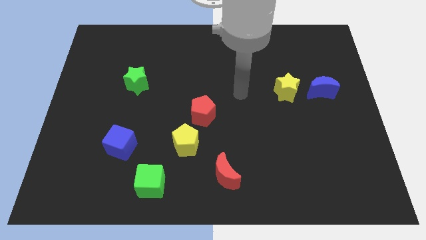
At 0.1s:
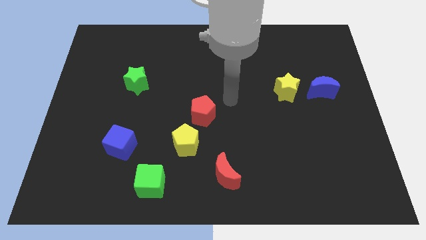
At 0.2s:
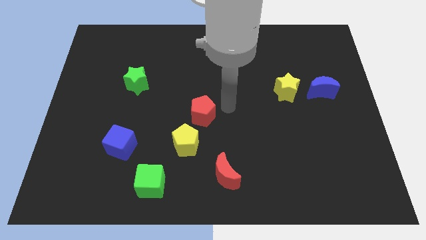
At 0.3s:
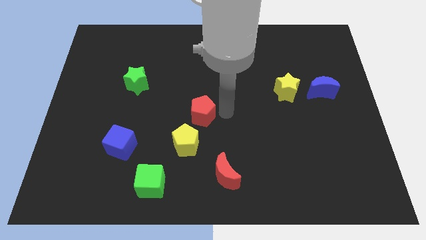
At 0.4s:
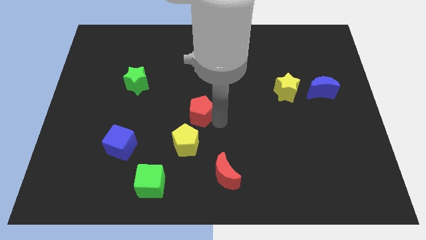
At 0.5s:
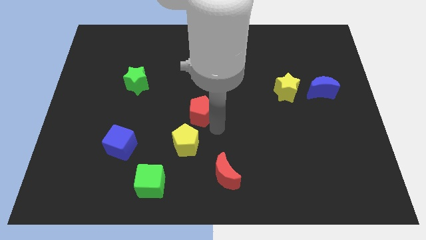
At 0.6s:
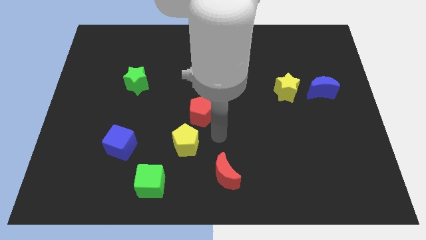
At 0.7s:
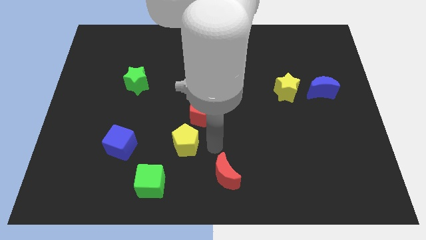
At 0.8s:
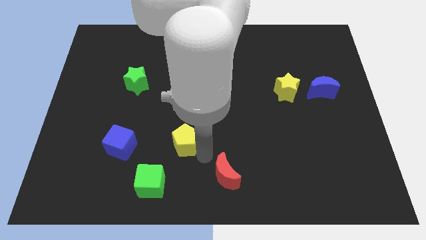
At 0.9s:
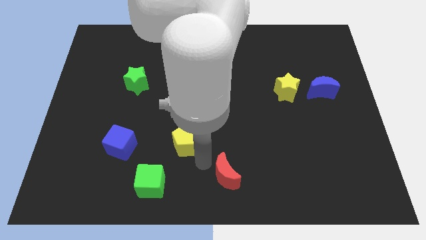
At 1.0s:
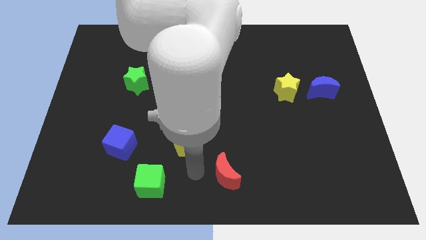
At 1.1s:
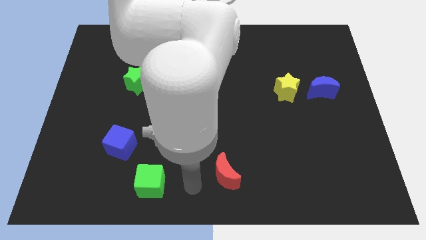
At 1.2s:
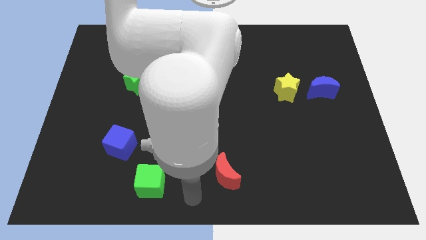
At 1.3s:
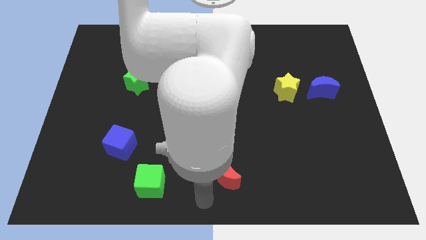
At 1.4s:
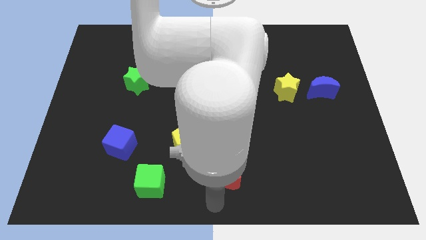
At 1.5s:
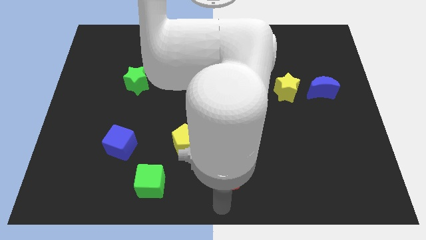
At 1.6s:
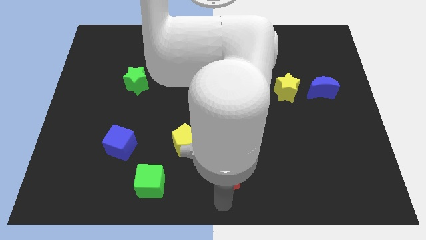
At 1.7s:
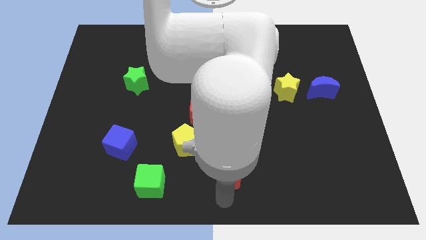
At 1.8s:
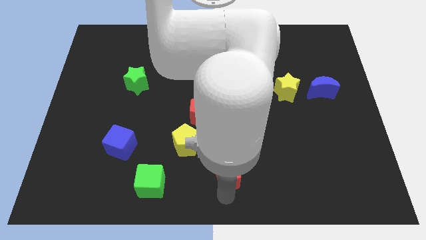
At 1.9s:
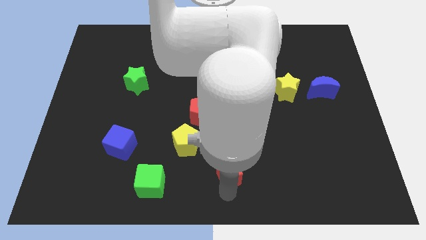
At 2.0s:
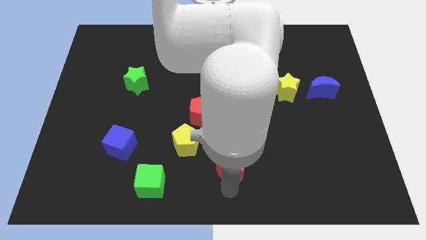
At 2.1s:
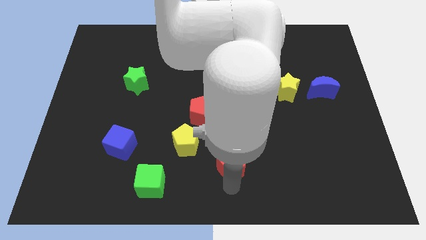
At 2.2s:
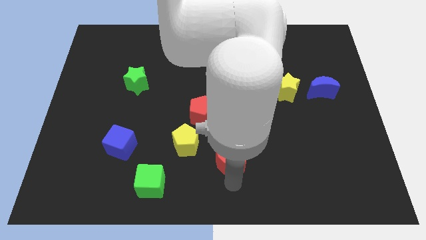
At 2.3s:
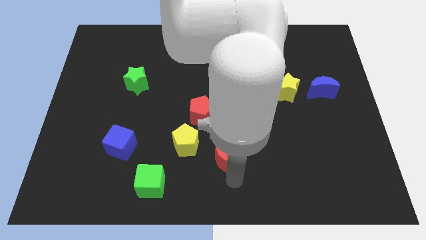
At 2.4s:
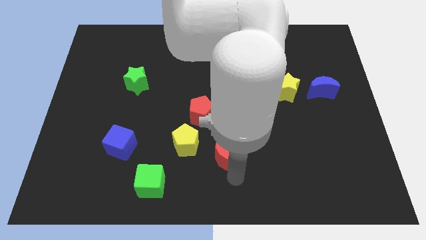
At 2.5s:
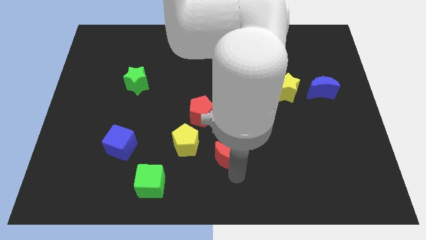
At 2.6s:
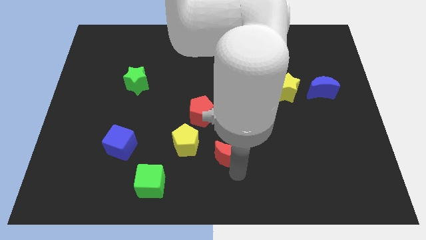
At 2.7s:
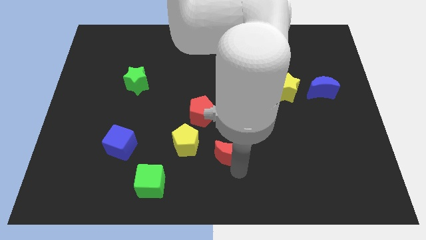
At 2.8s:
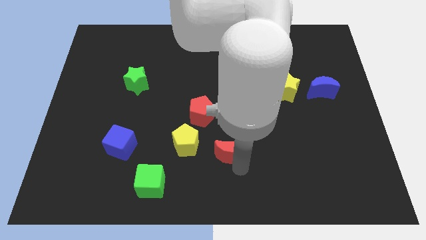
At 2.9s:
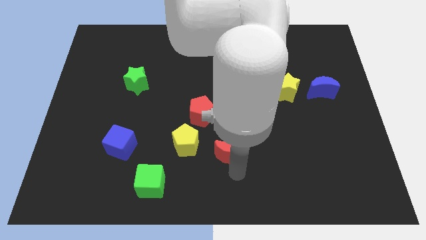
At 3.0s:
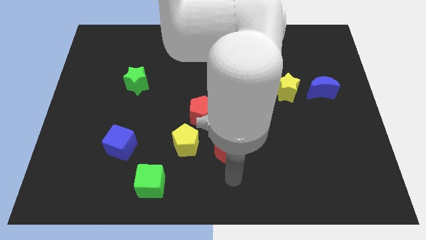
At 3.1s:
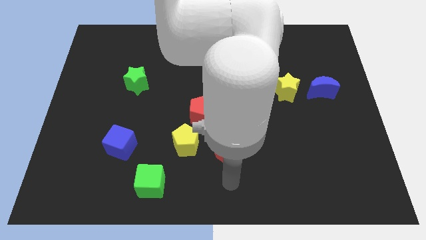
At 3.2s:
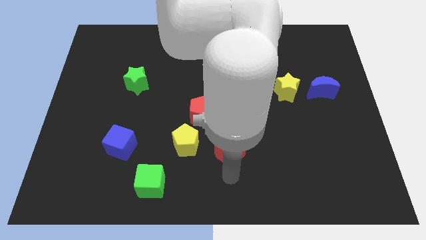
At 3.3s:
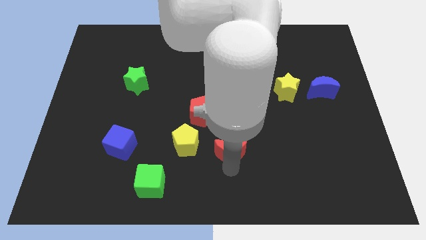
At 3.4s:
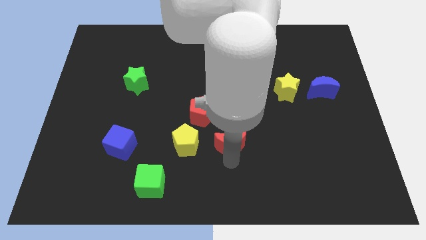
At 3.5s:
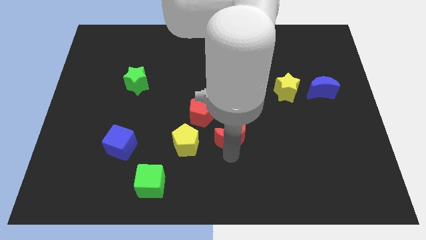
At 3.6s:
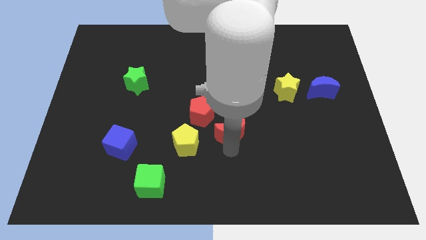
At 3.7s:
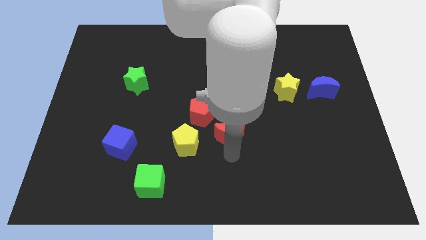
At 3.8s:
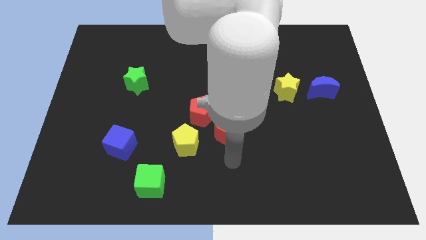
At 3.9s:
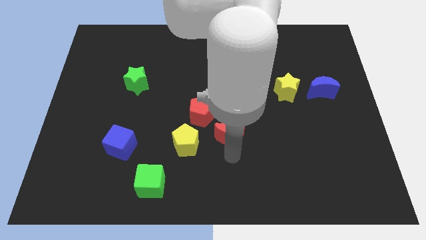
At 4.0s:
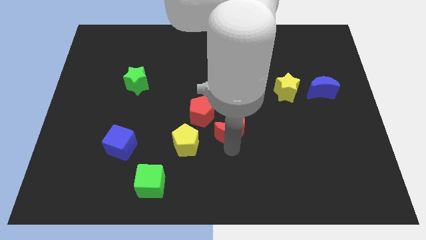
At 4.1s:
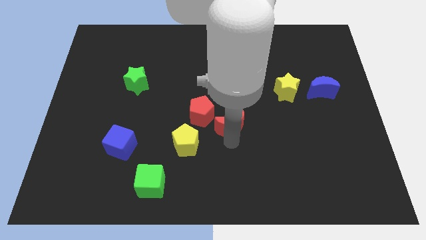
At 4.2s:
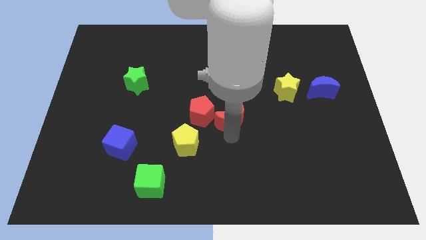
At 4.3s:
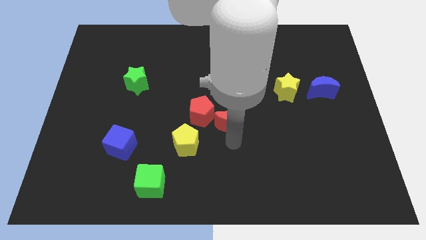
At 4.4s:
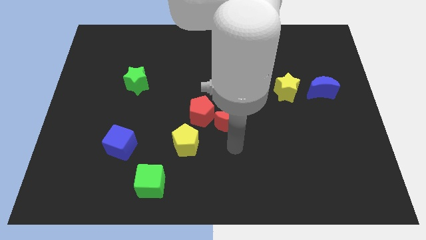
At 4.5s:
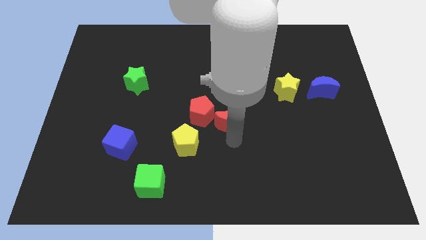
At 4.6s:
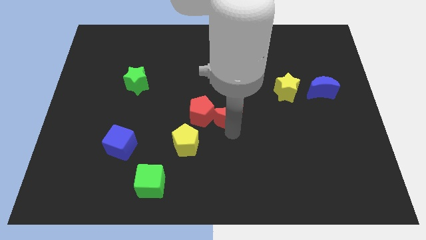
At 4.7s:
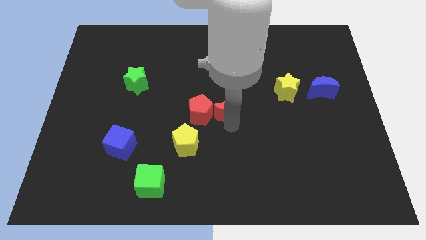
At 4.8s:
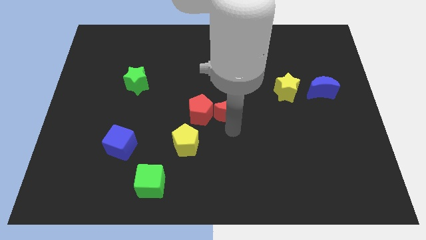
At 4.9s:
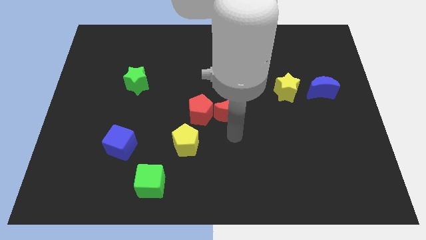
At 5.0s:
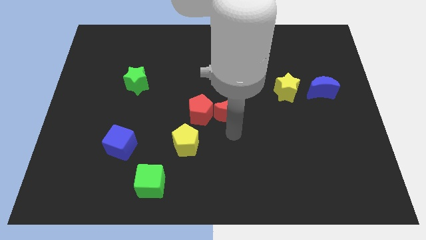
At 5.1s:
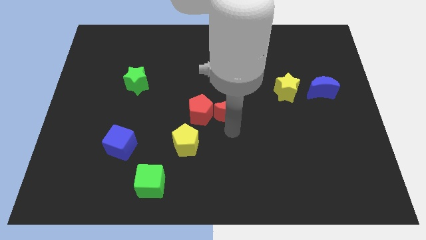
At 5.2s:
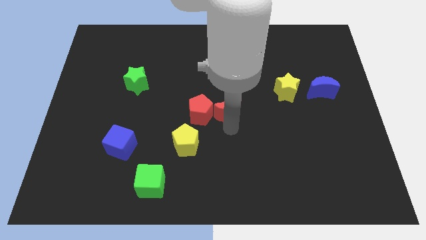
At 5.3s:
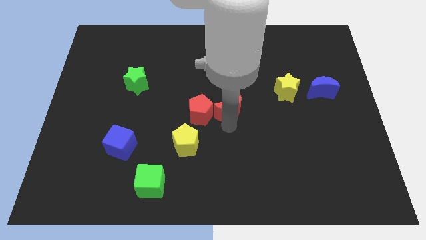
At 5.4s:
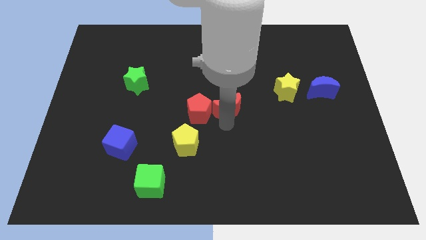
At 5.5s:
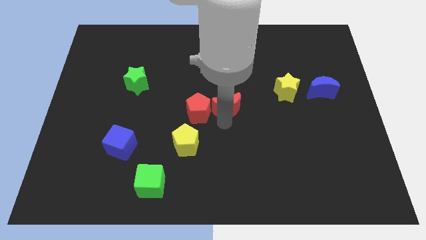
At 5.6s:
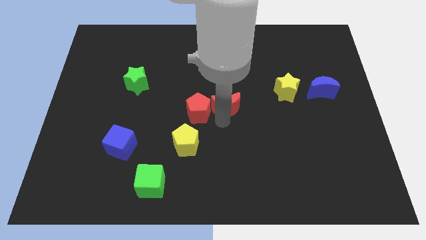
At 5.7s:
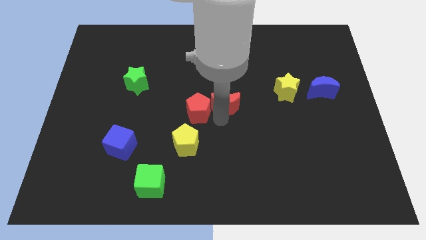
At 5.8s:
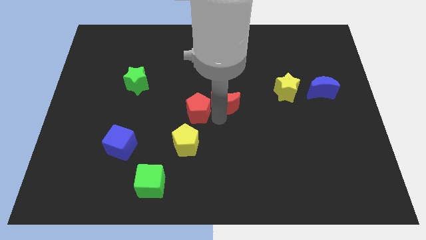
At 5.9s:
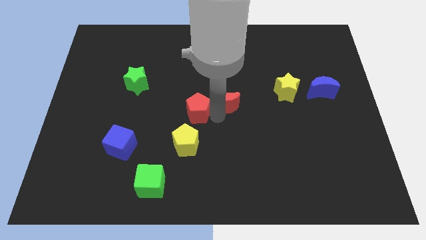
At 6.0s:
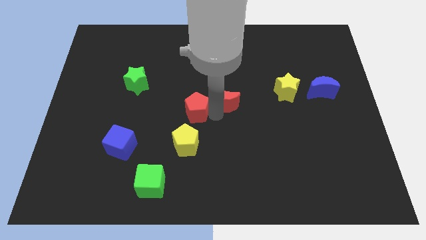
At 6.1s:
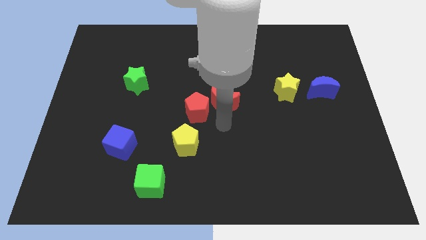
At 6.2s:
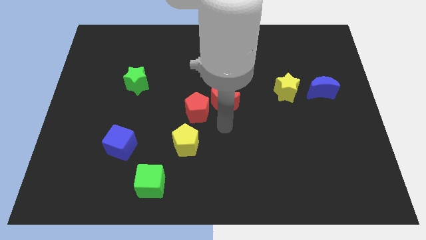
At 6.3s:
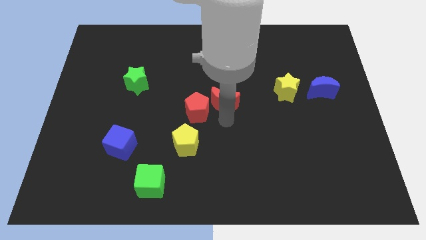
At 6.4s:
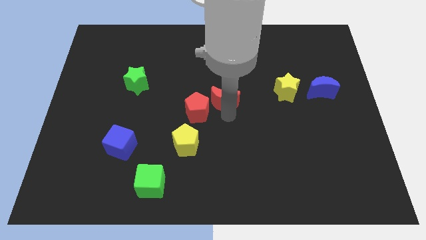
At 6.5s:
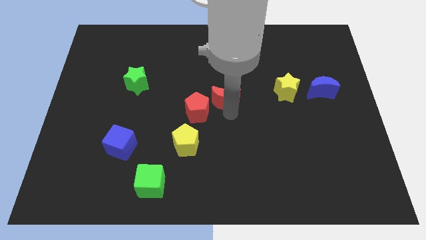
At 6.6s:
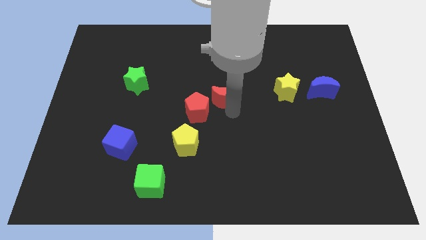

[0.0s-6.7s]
push the red moon upwards

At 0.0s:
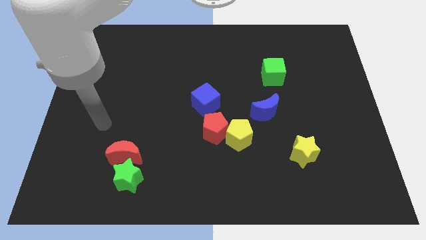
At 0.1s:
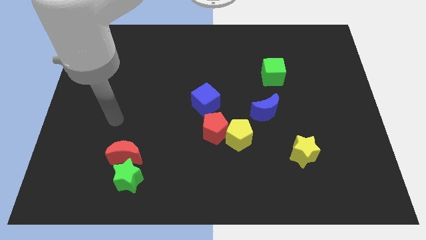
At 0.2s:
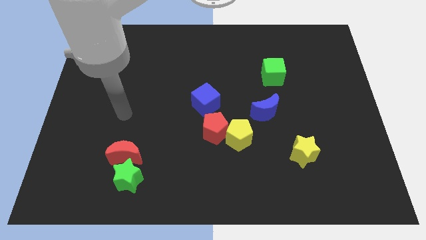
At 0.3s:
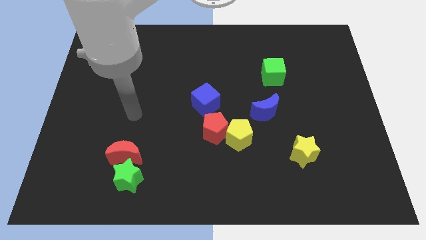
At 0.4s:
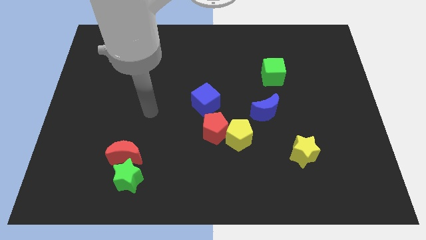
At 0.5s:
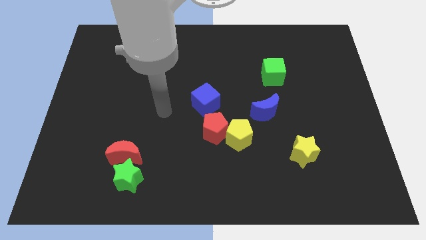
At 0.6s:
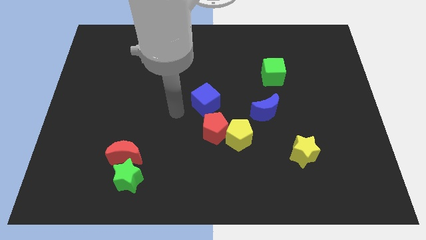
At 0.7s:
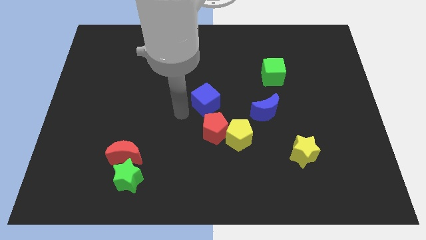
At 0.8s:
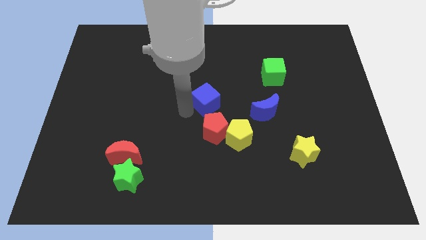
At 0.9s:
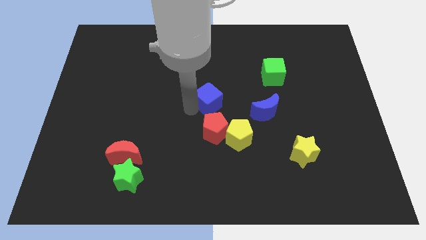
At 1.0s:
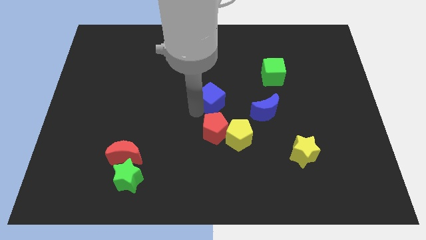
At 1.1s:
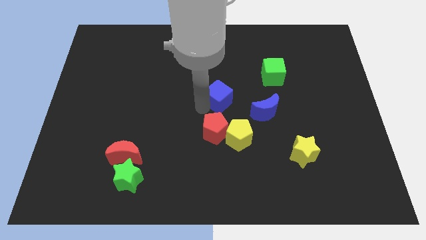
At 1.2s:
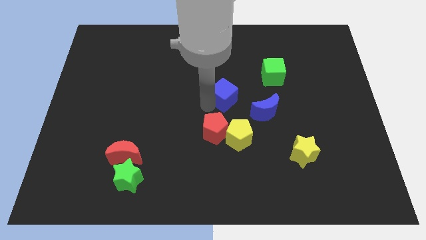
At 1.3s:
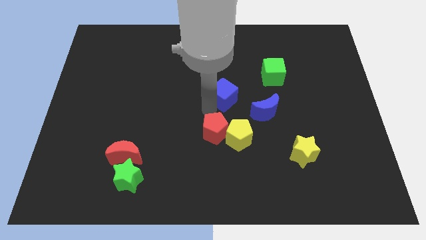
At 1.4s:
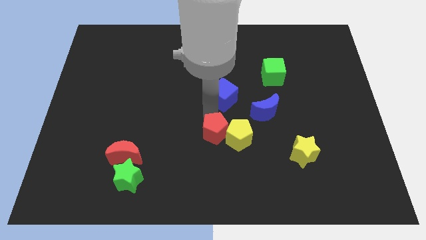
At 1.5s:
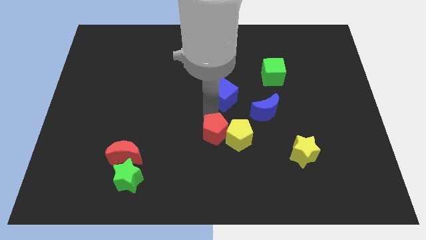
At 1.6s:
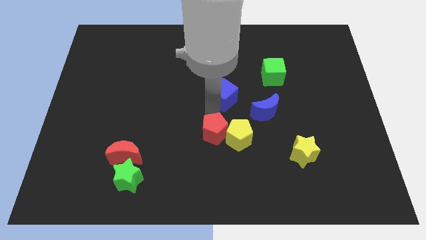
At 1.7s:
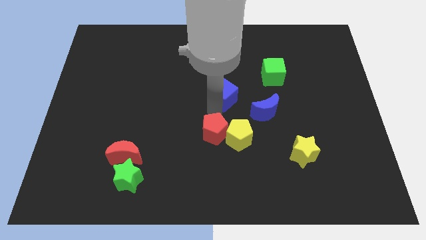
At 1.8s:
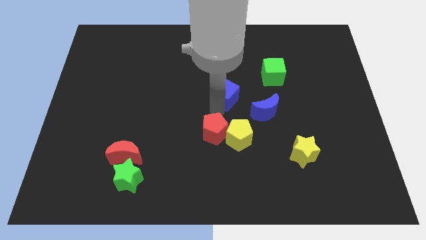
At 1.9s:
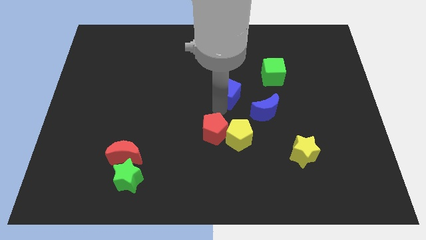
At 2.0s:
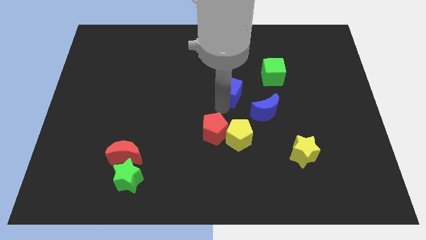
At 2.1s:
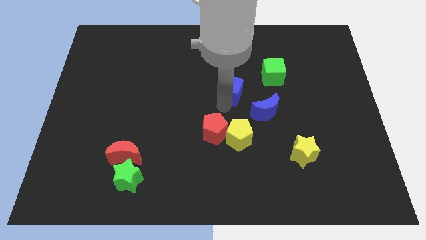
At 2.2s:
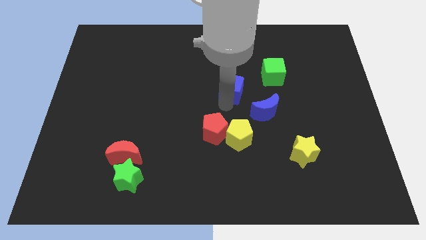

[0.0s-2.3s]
push the blue cube a bit diagonally up and right
